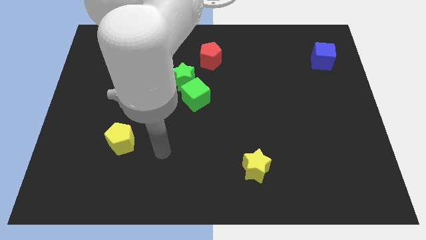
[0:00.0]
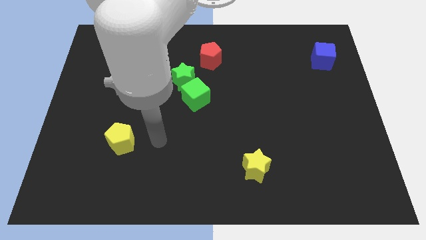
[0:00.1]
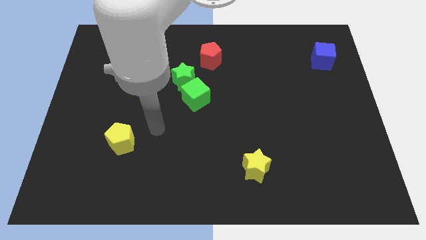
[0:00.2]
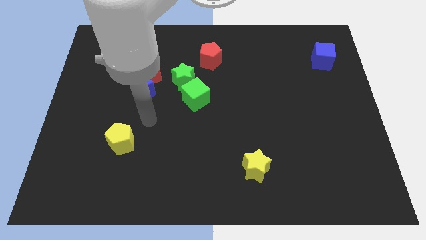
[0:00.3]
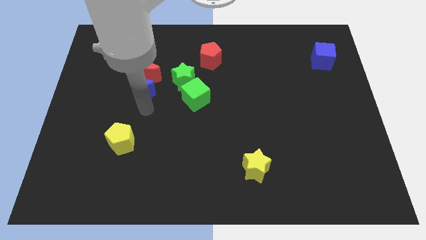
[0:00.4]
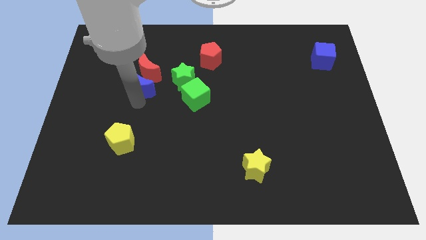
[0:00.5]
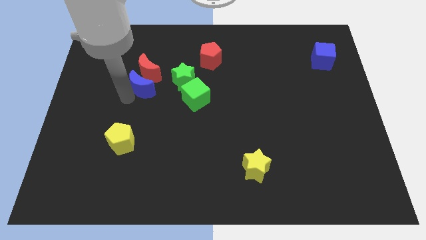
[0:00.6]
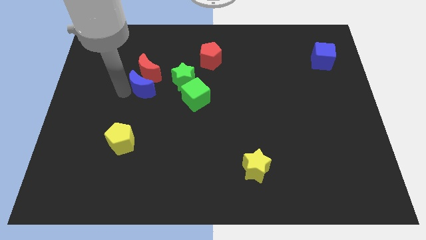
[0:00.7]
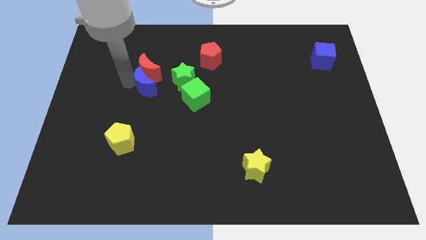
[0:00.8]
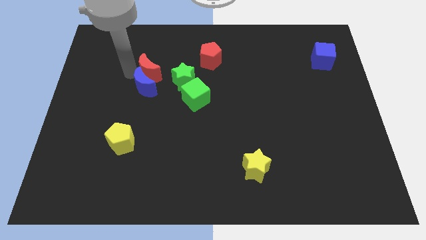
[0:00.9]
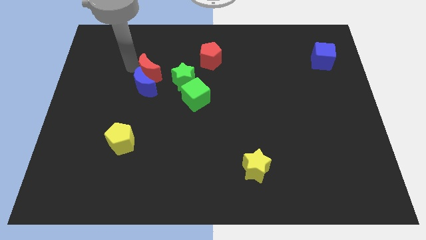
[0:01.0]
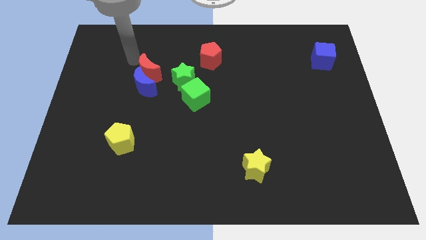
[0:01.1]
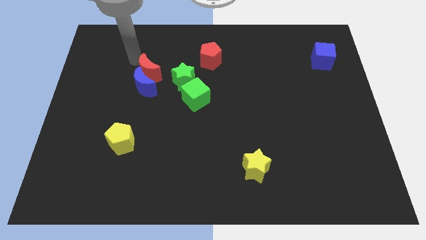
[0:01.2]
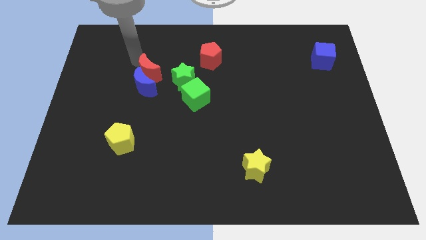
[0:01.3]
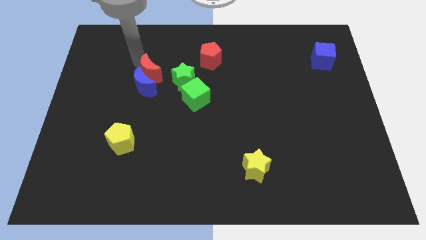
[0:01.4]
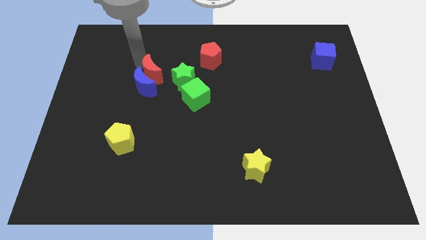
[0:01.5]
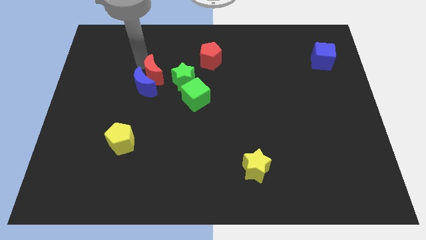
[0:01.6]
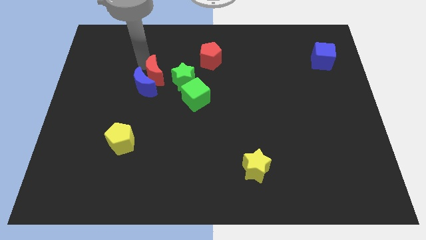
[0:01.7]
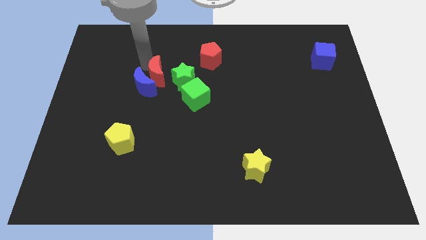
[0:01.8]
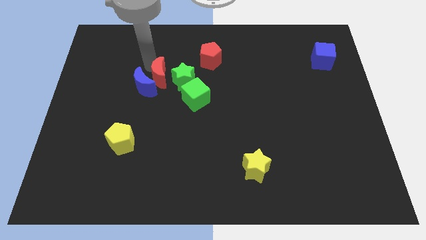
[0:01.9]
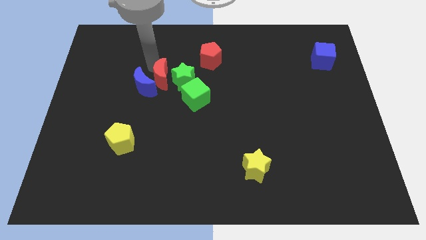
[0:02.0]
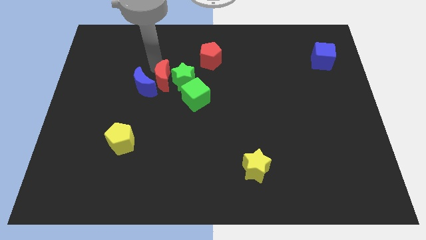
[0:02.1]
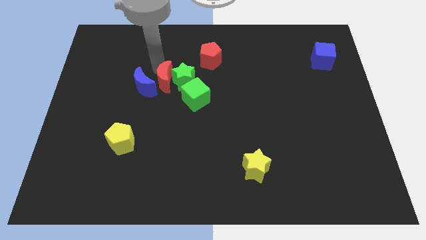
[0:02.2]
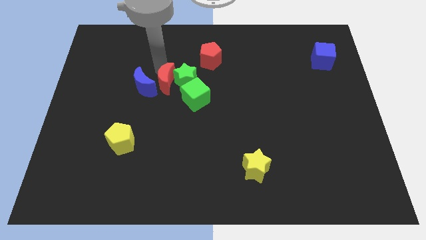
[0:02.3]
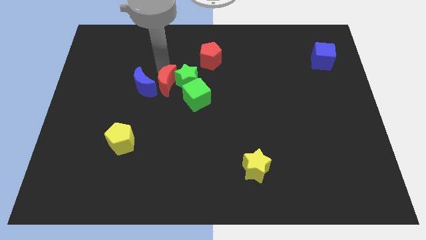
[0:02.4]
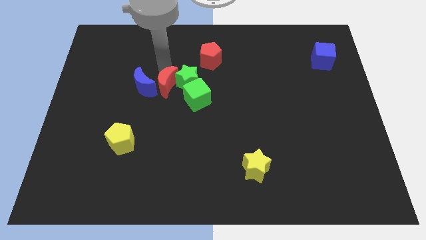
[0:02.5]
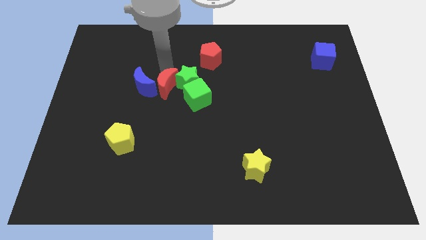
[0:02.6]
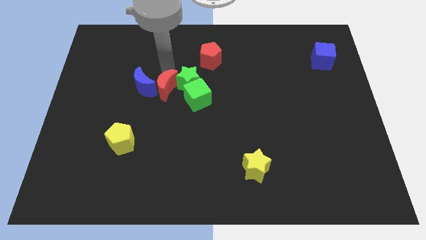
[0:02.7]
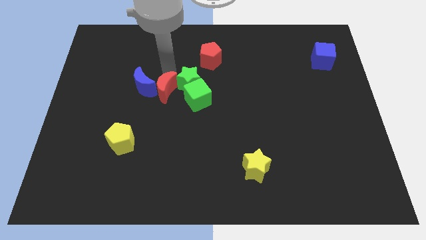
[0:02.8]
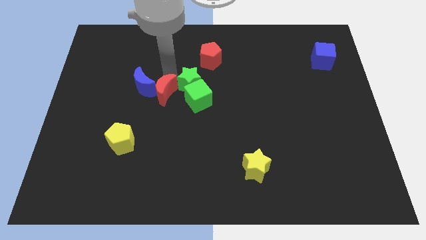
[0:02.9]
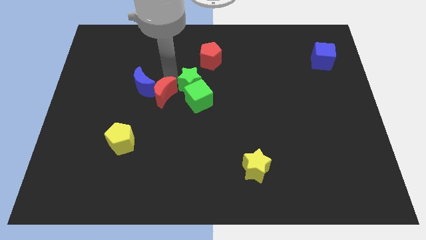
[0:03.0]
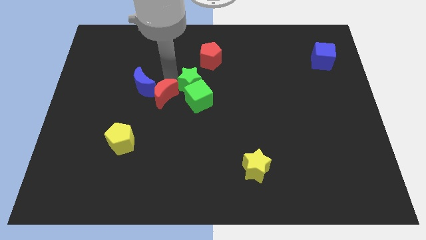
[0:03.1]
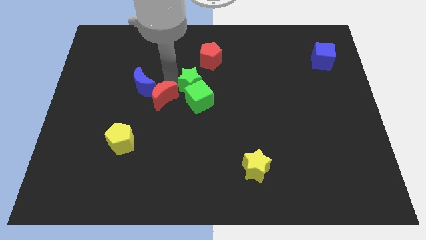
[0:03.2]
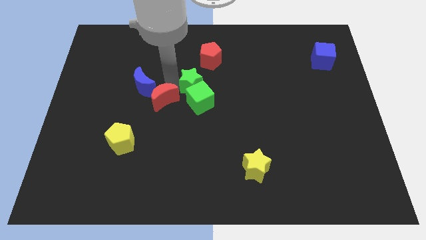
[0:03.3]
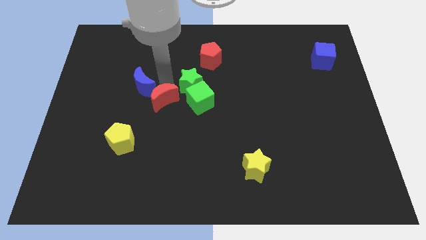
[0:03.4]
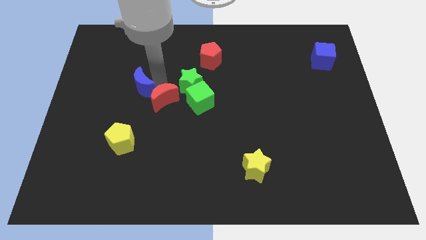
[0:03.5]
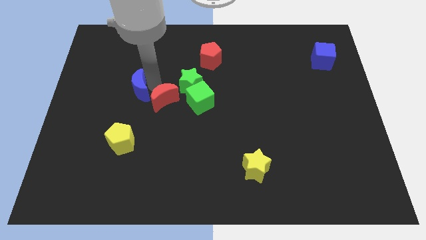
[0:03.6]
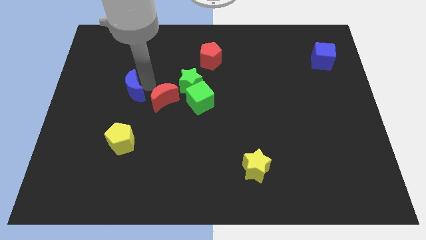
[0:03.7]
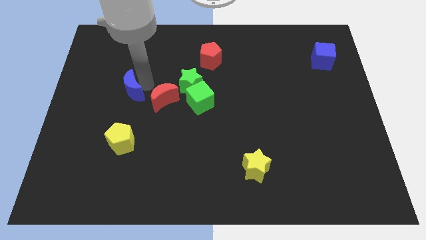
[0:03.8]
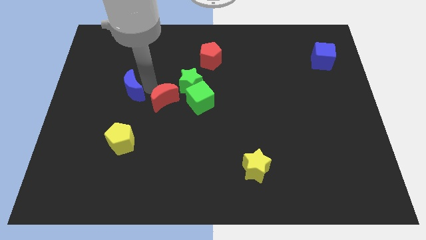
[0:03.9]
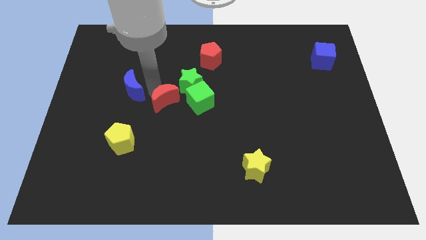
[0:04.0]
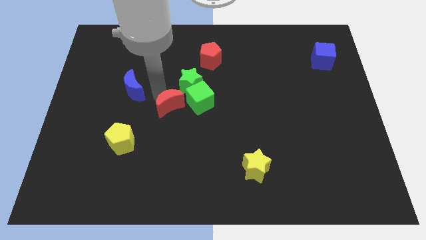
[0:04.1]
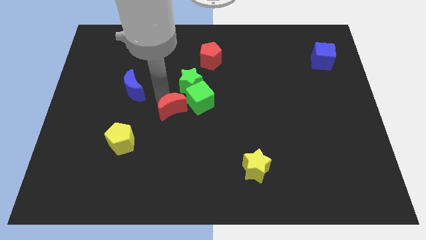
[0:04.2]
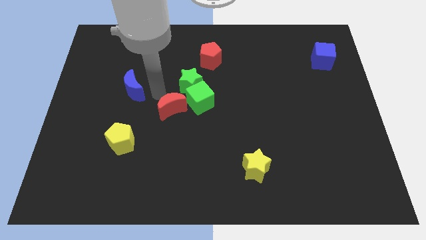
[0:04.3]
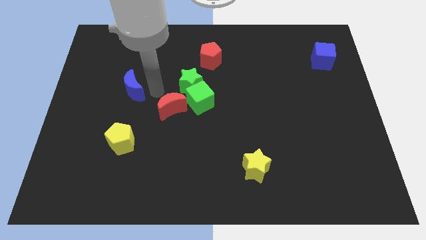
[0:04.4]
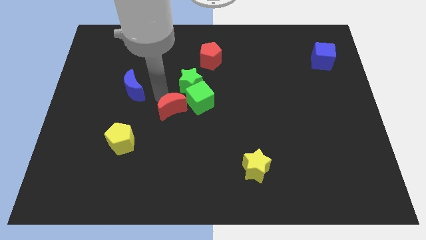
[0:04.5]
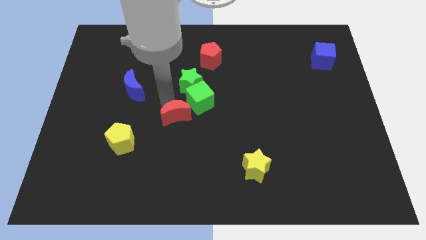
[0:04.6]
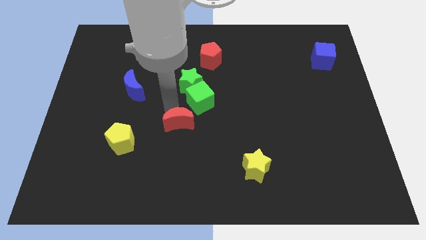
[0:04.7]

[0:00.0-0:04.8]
push the red moon to the bottom of the green cube

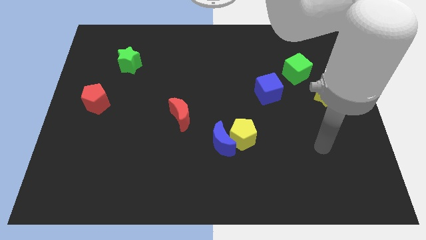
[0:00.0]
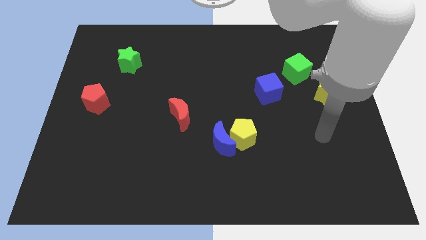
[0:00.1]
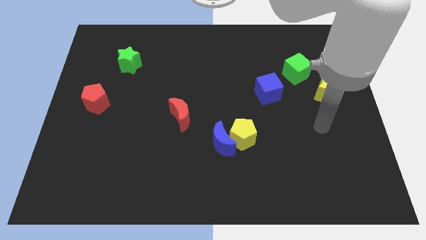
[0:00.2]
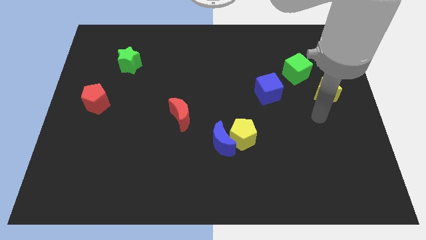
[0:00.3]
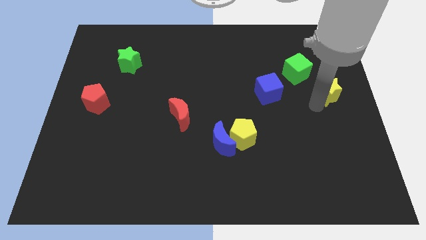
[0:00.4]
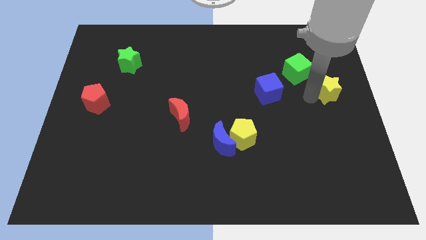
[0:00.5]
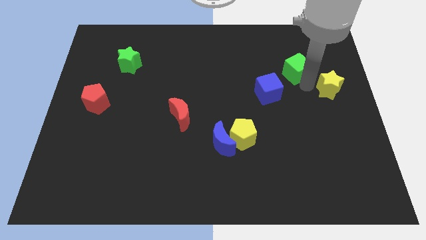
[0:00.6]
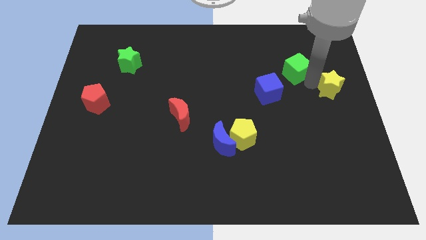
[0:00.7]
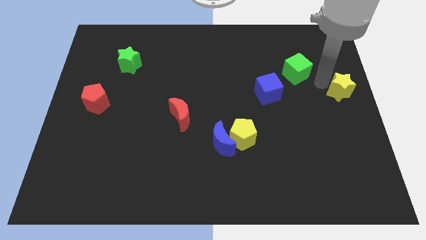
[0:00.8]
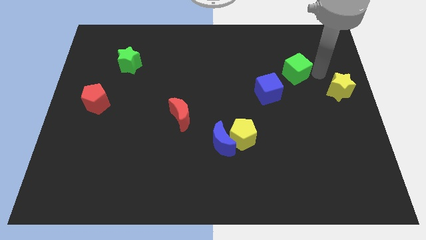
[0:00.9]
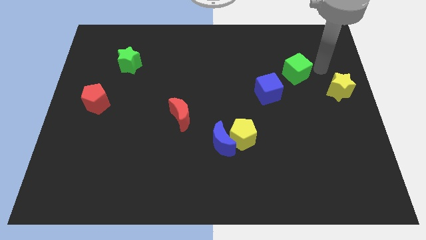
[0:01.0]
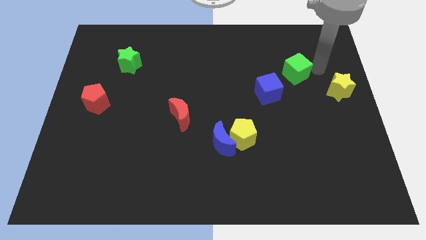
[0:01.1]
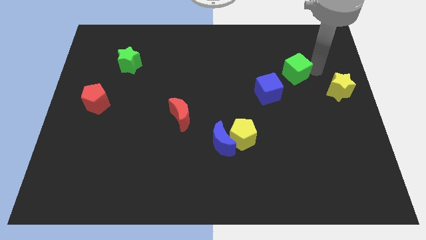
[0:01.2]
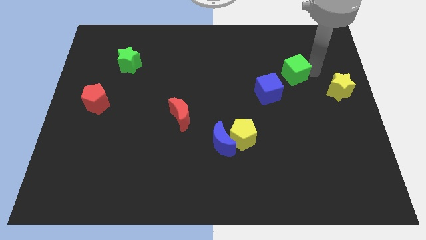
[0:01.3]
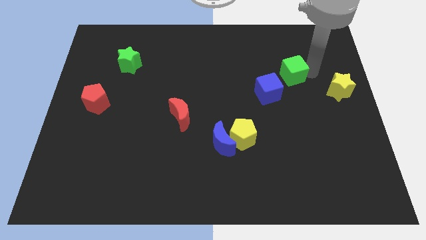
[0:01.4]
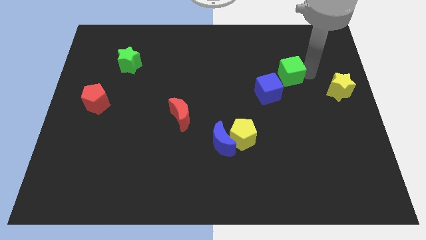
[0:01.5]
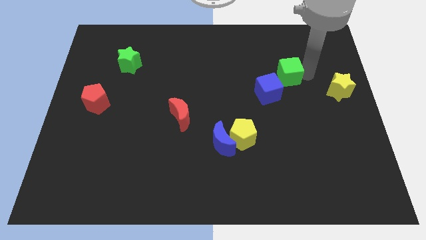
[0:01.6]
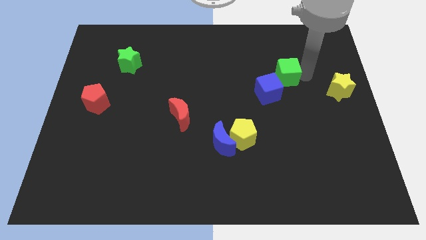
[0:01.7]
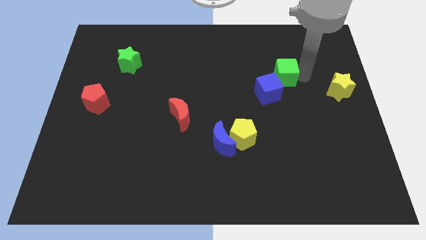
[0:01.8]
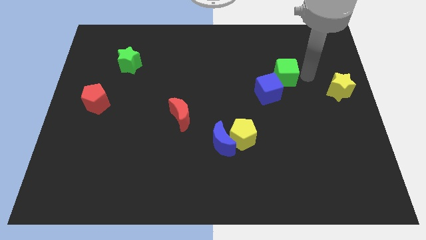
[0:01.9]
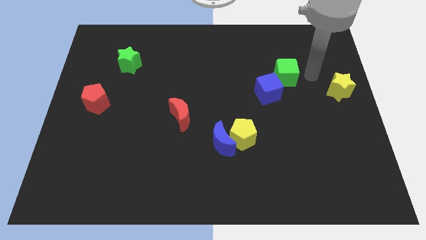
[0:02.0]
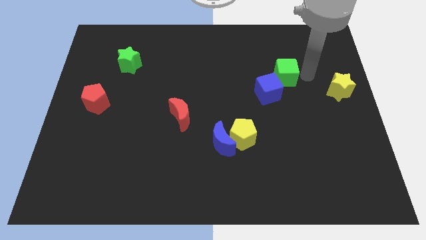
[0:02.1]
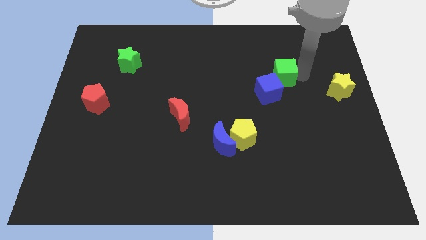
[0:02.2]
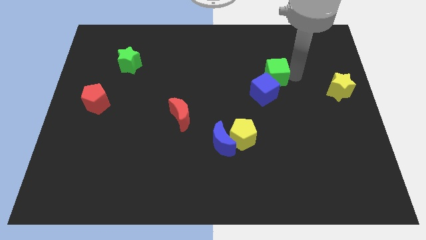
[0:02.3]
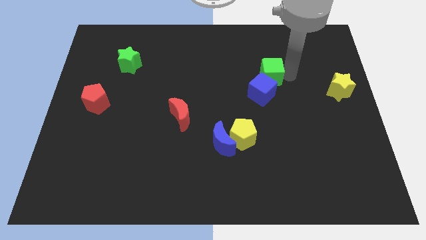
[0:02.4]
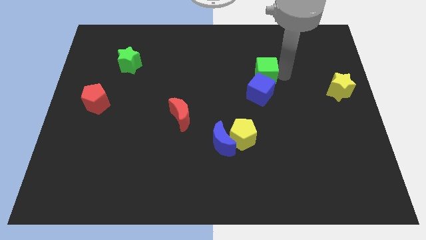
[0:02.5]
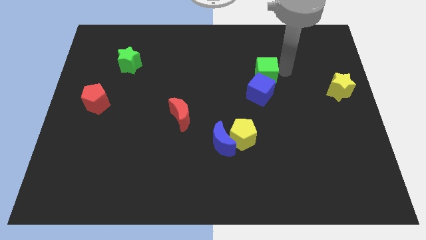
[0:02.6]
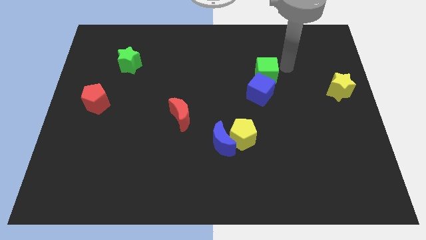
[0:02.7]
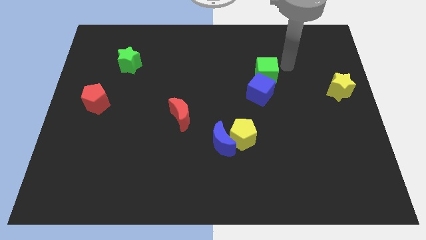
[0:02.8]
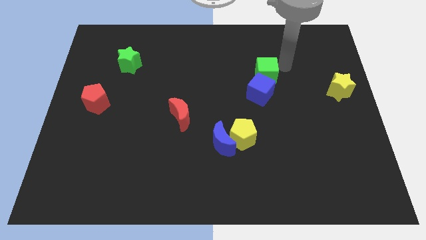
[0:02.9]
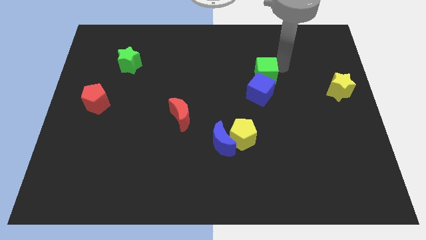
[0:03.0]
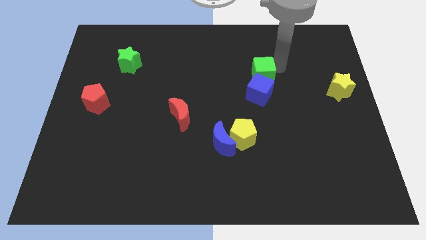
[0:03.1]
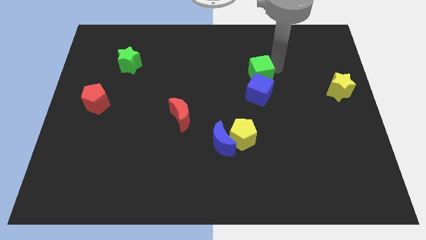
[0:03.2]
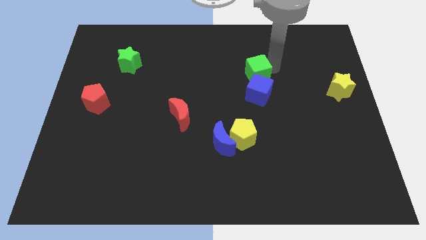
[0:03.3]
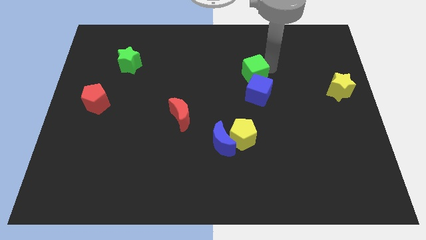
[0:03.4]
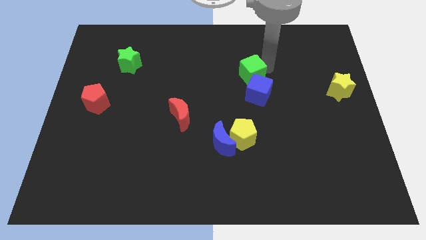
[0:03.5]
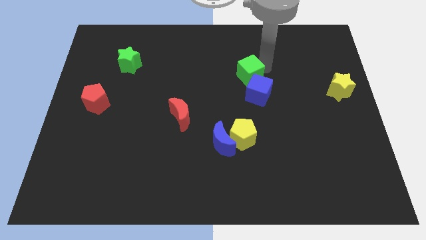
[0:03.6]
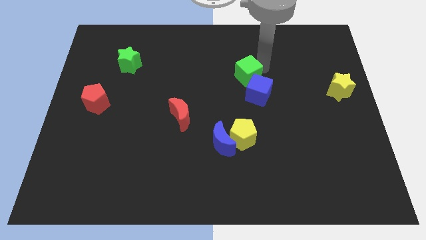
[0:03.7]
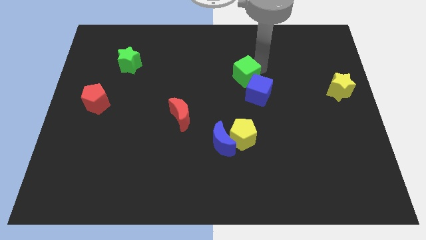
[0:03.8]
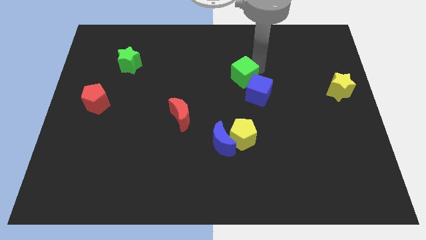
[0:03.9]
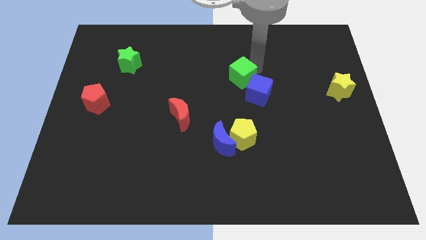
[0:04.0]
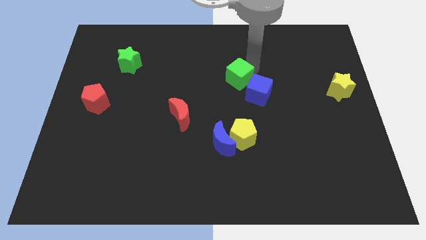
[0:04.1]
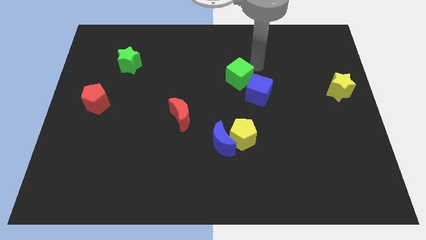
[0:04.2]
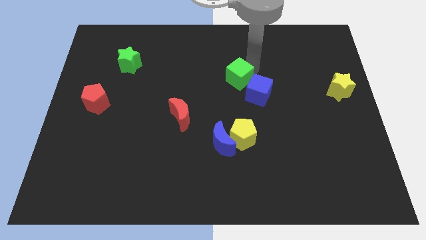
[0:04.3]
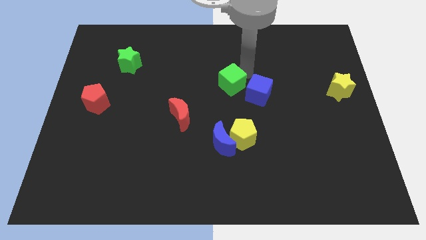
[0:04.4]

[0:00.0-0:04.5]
slide the green cube to the left of the blue cube
